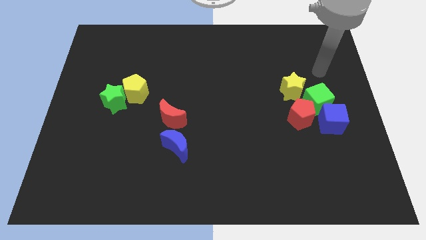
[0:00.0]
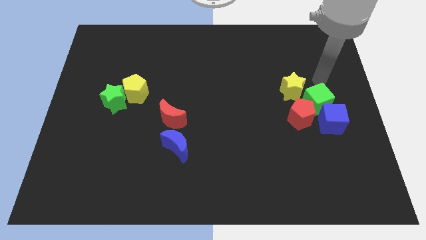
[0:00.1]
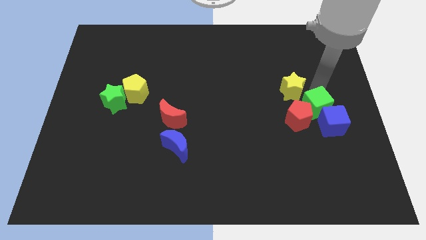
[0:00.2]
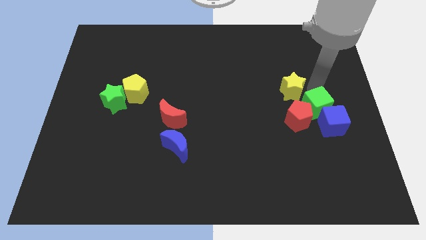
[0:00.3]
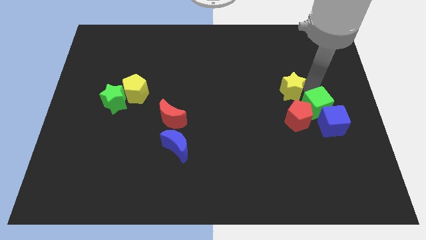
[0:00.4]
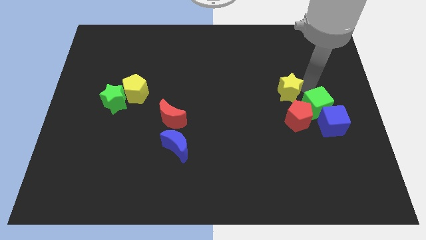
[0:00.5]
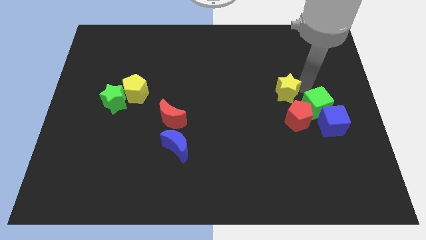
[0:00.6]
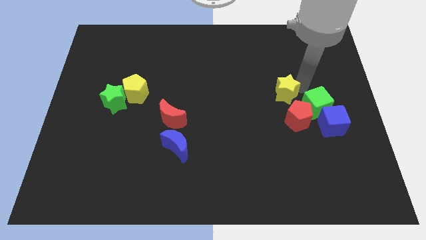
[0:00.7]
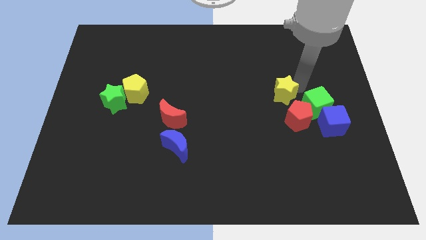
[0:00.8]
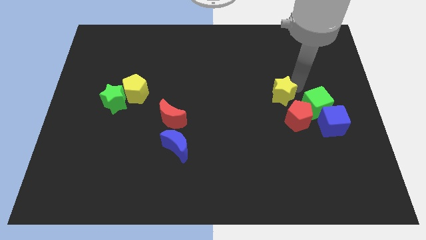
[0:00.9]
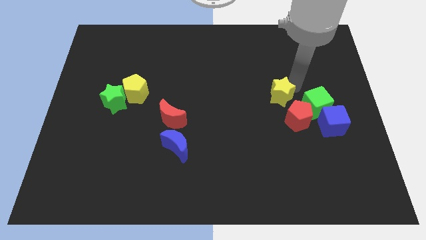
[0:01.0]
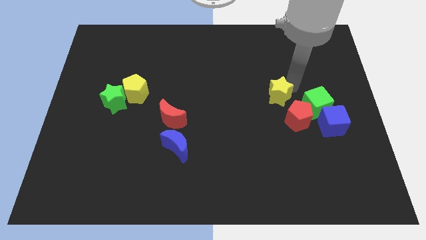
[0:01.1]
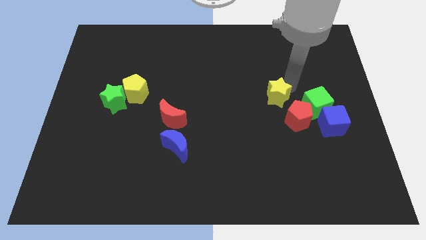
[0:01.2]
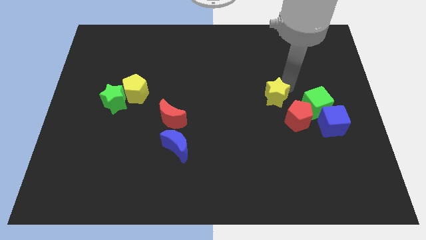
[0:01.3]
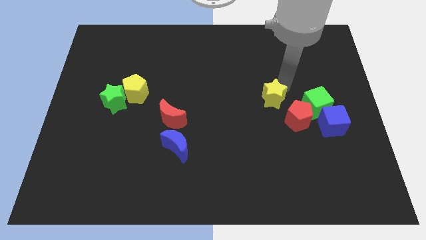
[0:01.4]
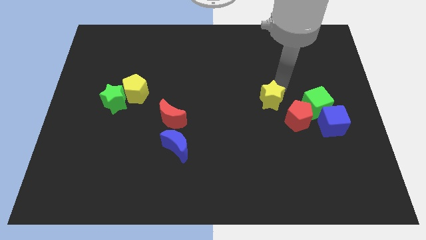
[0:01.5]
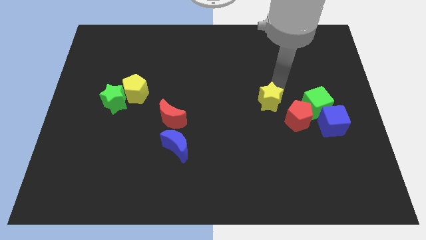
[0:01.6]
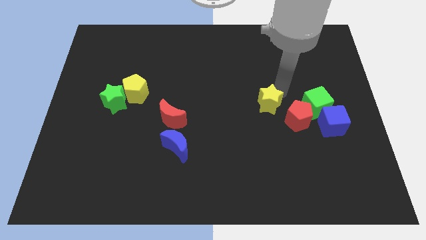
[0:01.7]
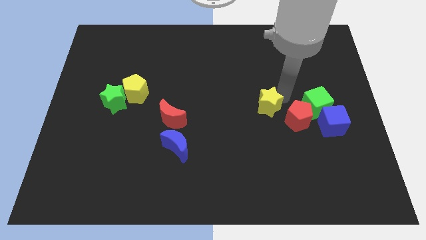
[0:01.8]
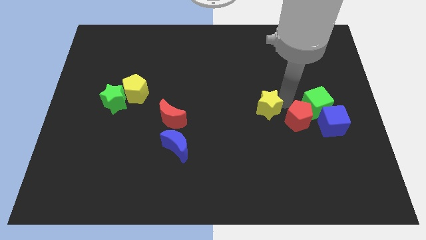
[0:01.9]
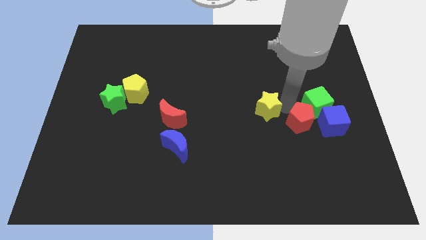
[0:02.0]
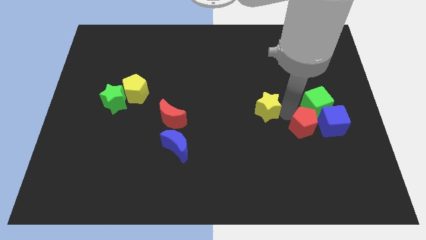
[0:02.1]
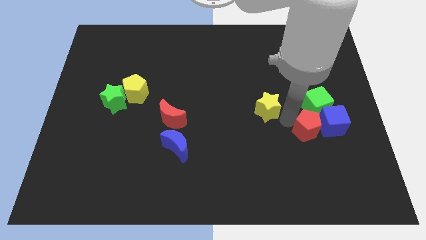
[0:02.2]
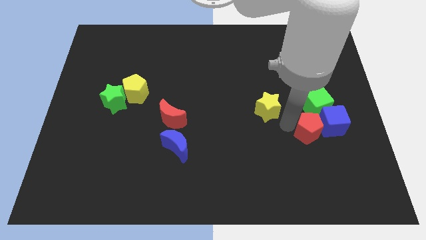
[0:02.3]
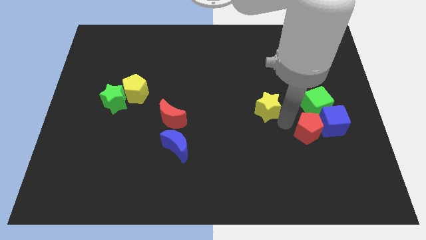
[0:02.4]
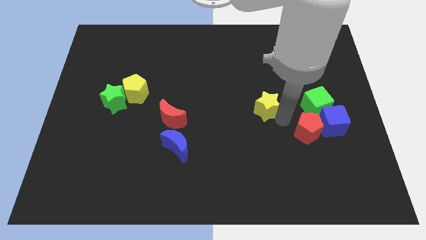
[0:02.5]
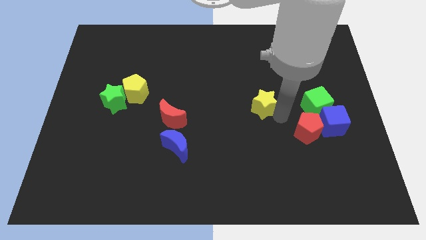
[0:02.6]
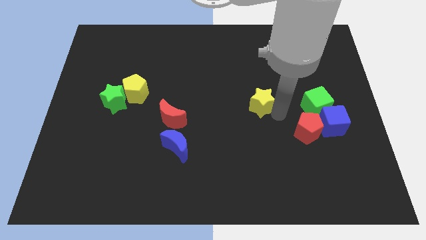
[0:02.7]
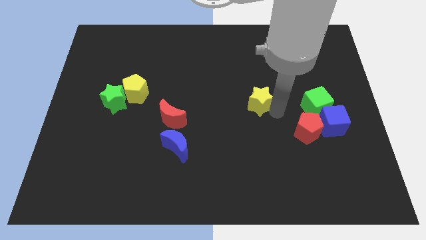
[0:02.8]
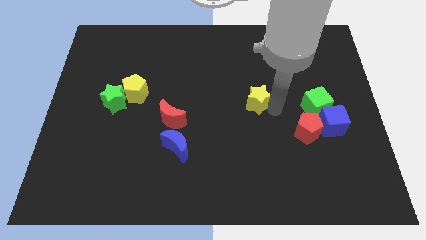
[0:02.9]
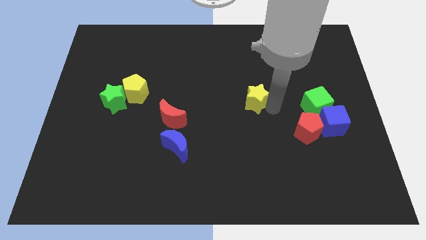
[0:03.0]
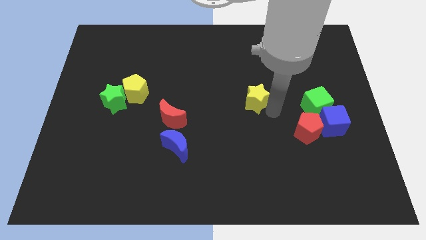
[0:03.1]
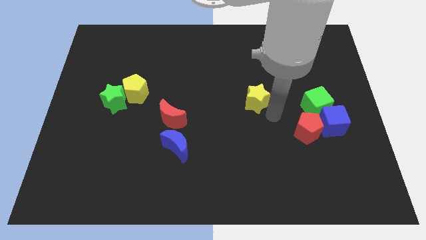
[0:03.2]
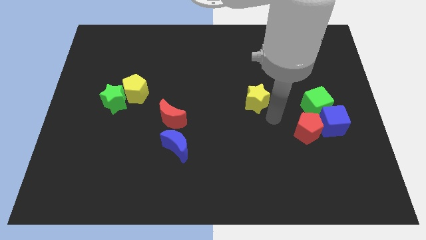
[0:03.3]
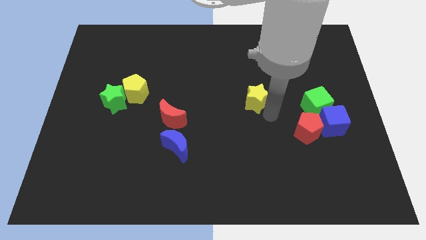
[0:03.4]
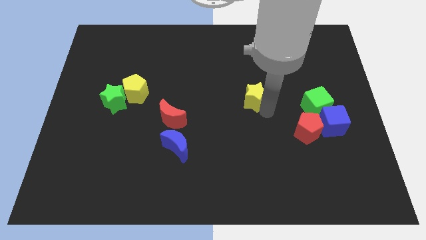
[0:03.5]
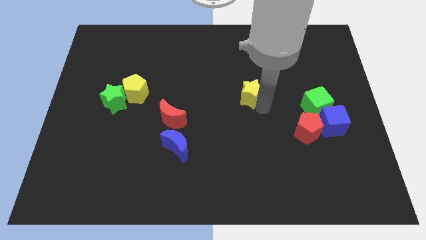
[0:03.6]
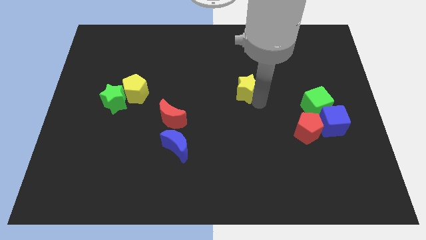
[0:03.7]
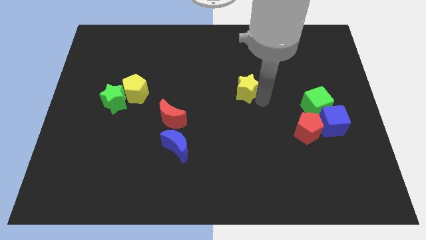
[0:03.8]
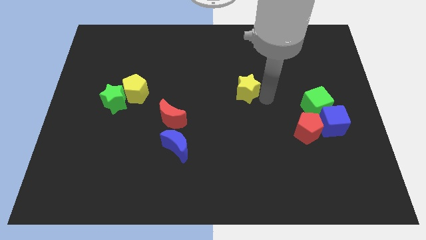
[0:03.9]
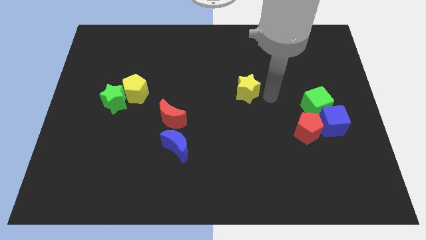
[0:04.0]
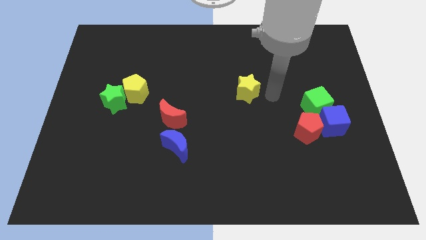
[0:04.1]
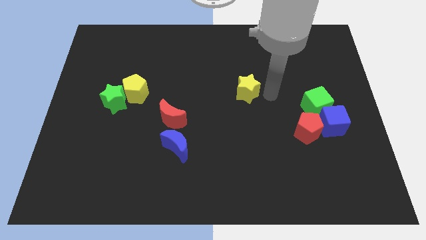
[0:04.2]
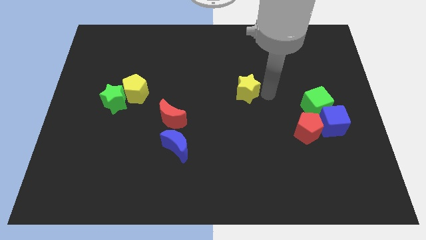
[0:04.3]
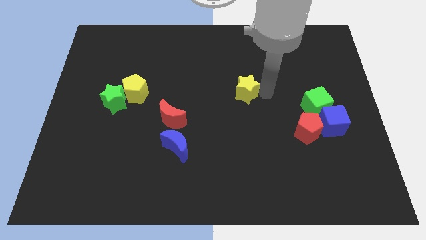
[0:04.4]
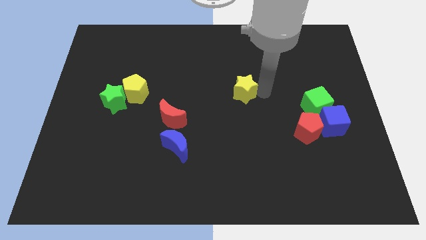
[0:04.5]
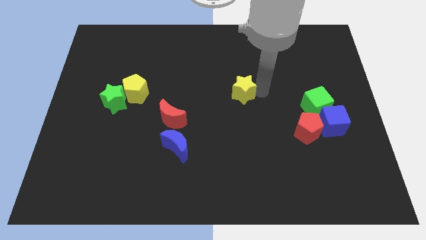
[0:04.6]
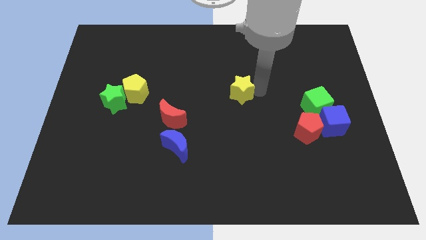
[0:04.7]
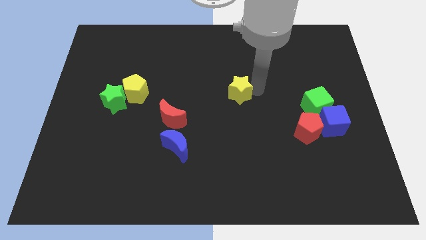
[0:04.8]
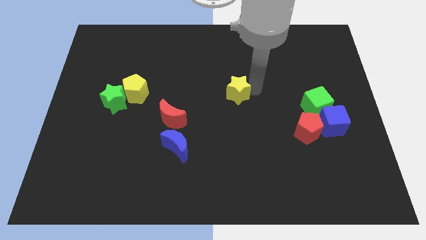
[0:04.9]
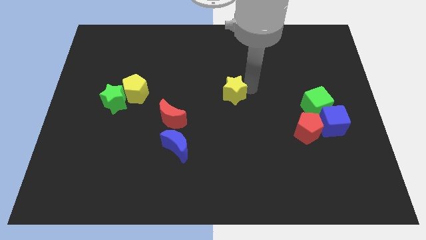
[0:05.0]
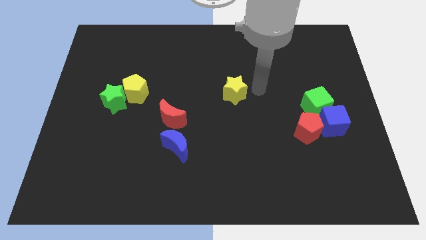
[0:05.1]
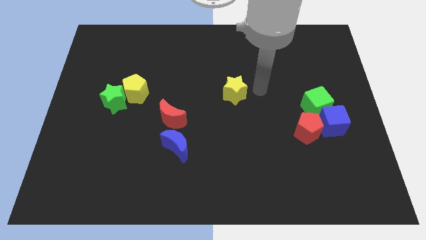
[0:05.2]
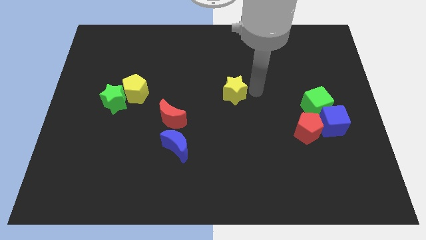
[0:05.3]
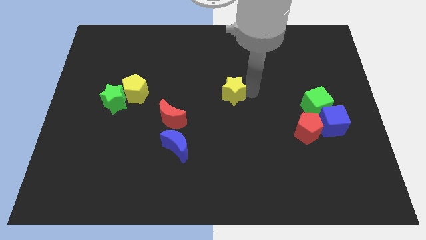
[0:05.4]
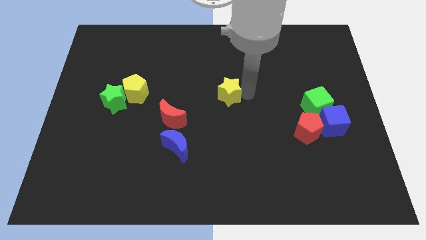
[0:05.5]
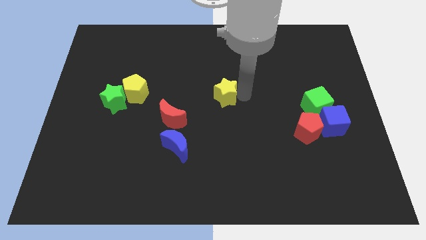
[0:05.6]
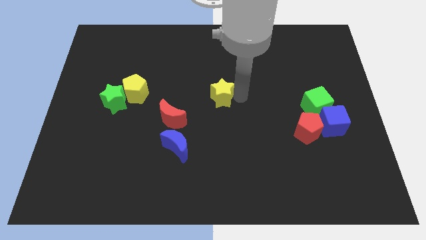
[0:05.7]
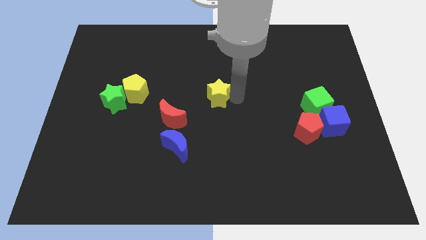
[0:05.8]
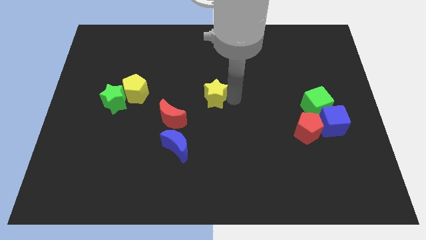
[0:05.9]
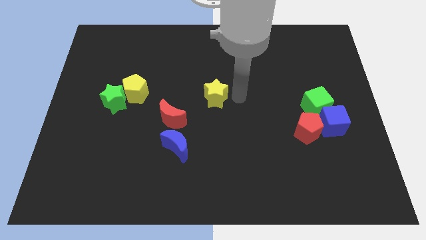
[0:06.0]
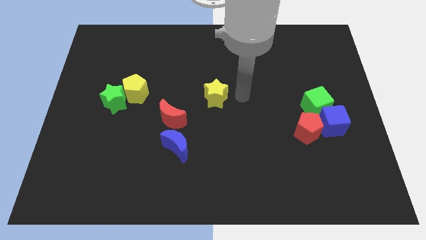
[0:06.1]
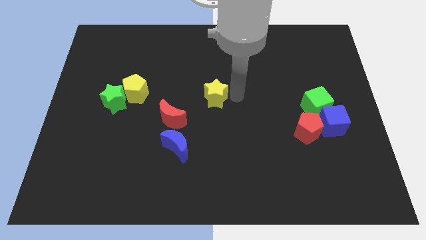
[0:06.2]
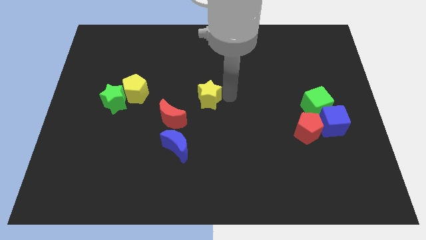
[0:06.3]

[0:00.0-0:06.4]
move the yellow star to the left

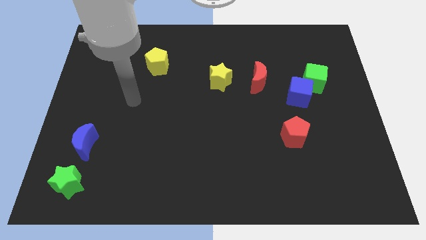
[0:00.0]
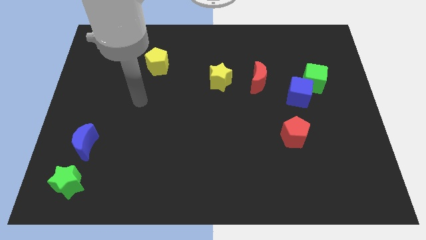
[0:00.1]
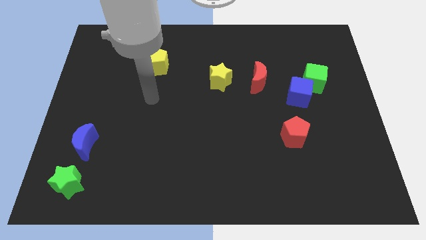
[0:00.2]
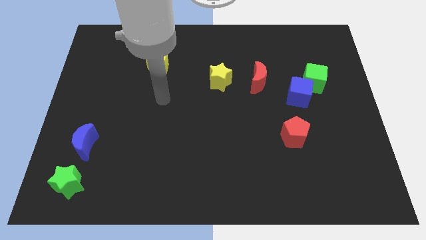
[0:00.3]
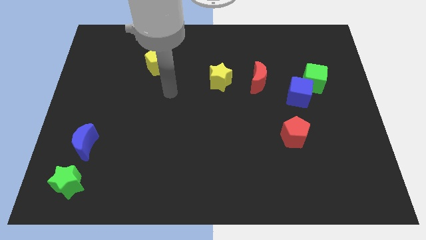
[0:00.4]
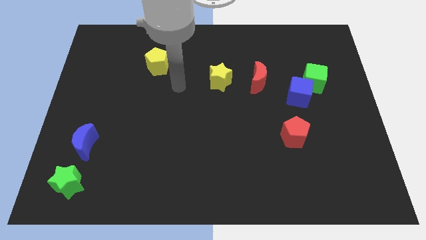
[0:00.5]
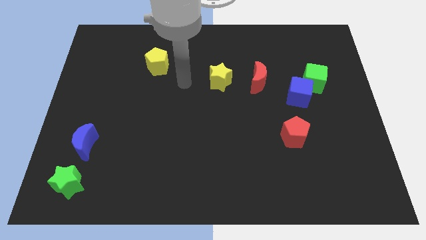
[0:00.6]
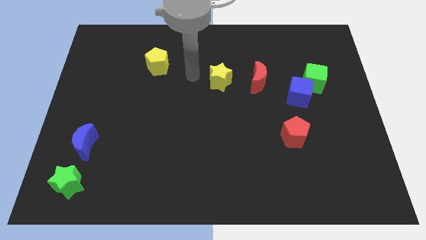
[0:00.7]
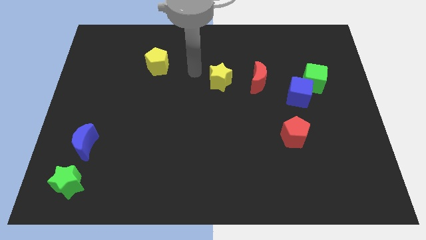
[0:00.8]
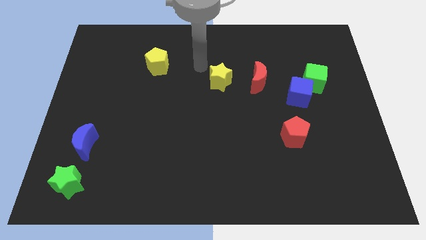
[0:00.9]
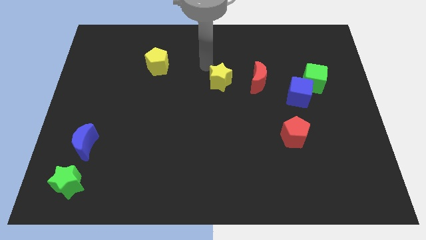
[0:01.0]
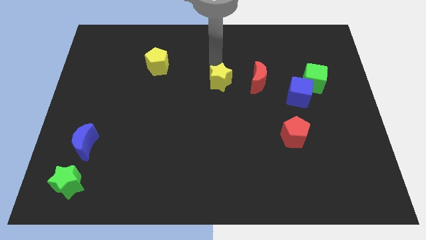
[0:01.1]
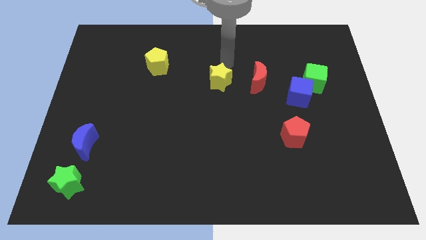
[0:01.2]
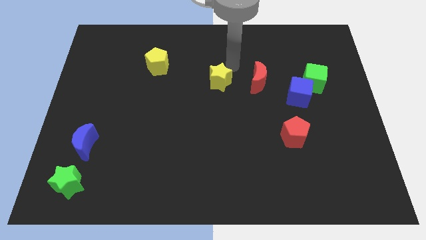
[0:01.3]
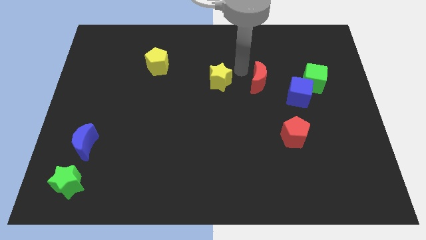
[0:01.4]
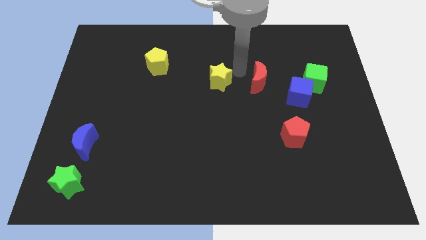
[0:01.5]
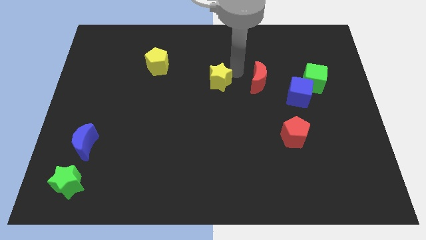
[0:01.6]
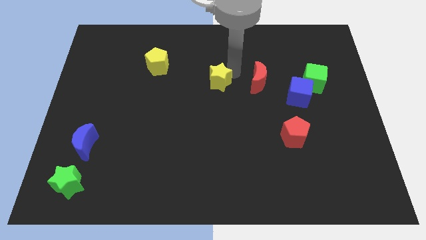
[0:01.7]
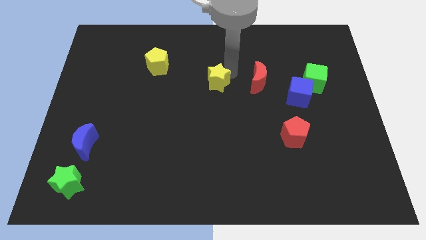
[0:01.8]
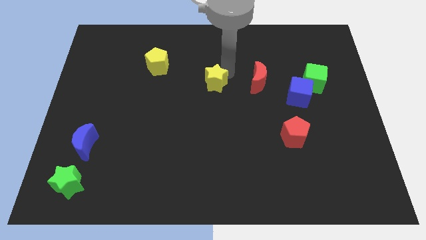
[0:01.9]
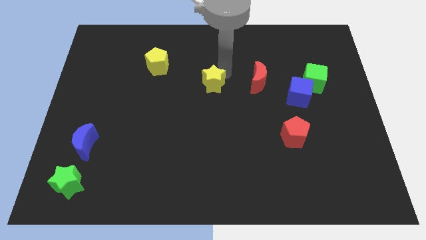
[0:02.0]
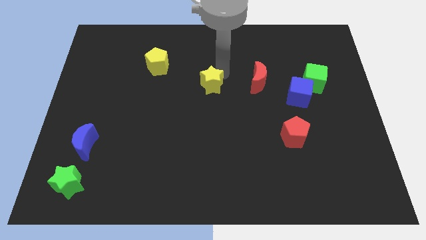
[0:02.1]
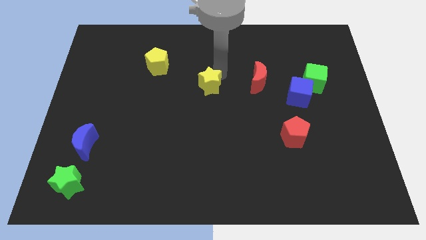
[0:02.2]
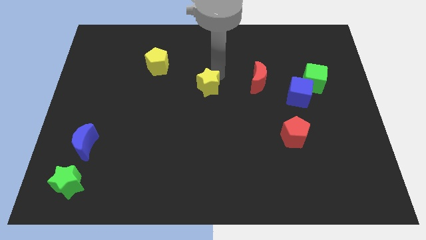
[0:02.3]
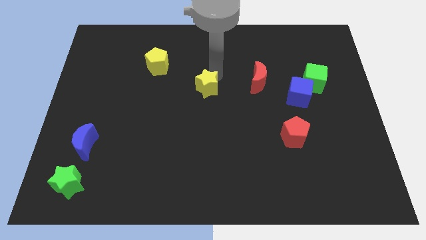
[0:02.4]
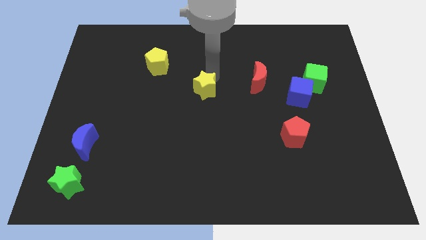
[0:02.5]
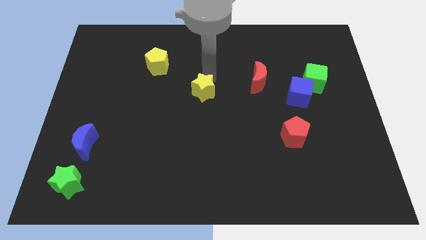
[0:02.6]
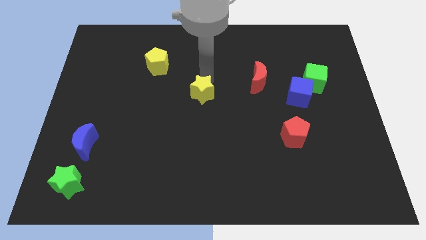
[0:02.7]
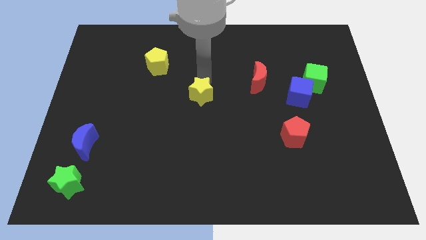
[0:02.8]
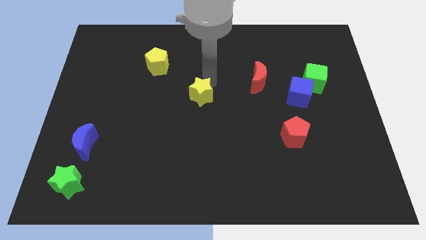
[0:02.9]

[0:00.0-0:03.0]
push the yellow star slightly diagonally down and to the left
